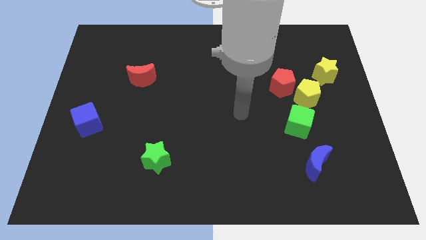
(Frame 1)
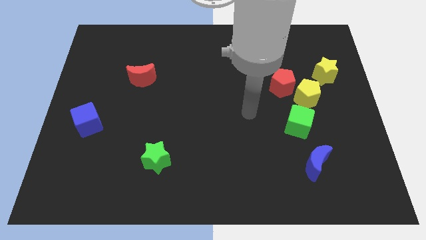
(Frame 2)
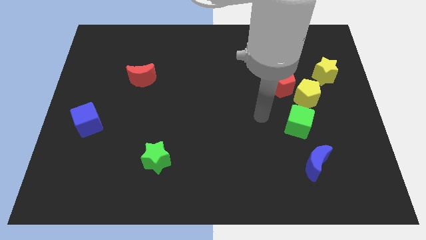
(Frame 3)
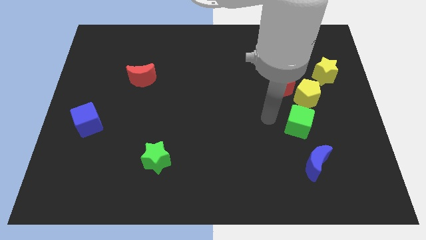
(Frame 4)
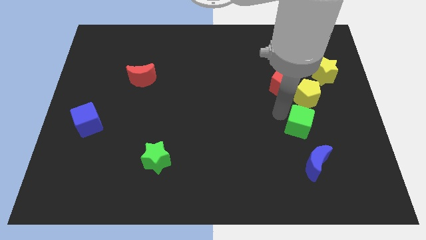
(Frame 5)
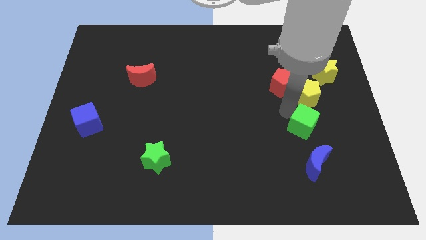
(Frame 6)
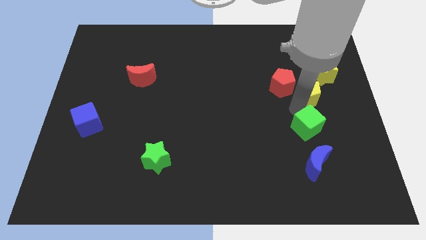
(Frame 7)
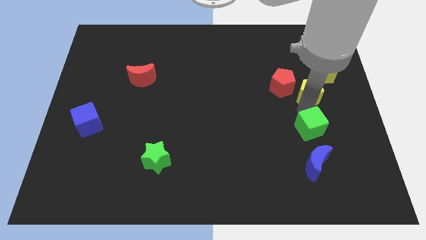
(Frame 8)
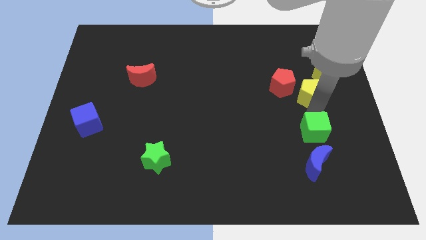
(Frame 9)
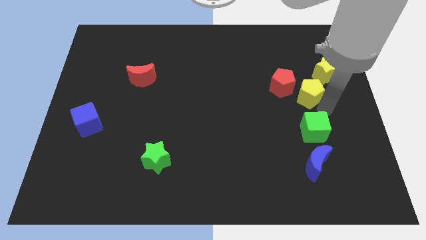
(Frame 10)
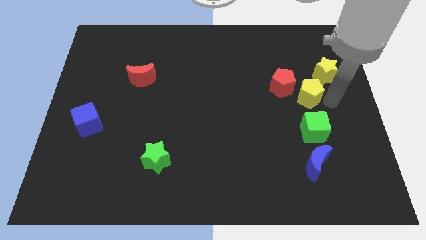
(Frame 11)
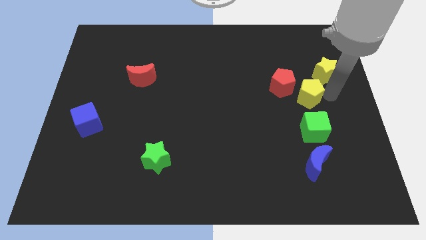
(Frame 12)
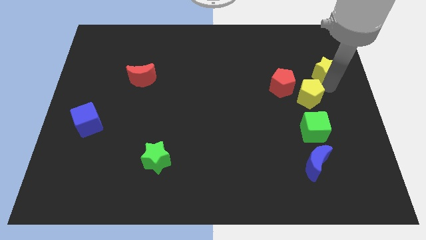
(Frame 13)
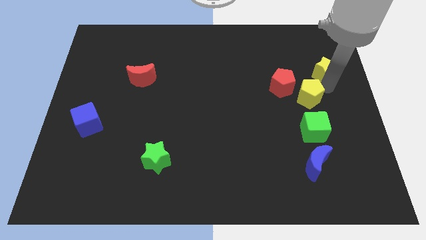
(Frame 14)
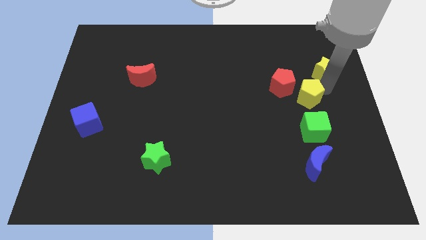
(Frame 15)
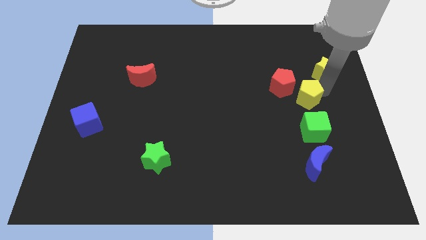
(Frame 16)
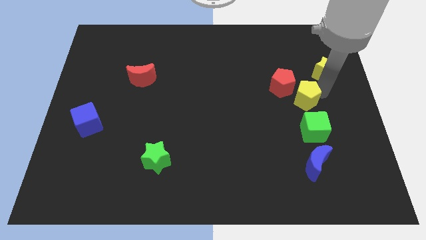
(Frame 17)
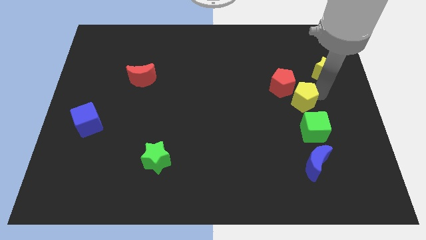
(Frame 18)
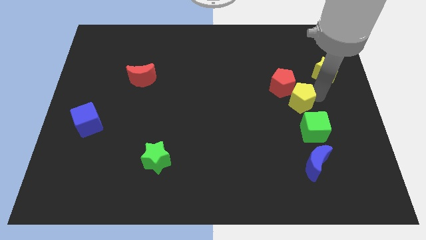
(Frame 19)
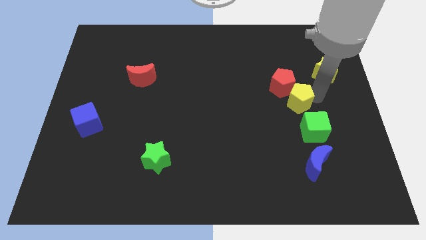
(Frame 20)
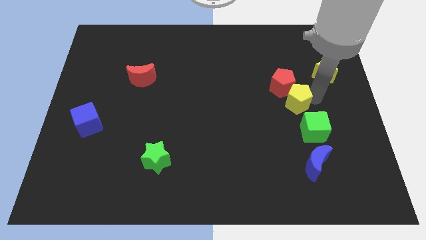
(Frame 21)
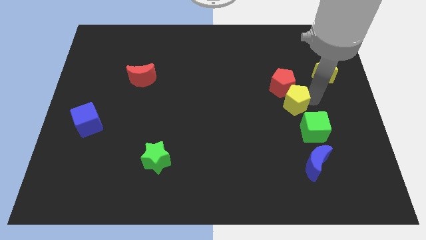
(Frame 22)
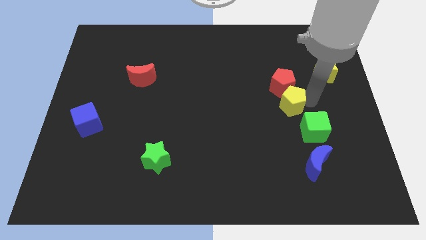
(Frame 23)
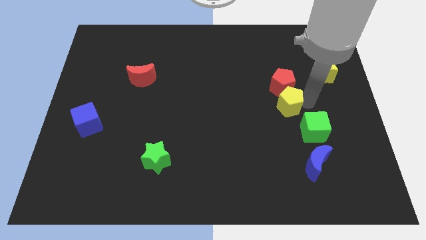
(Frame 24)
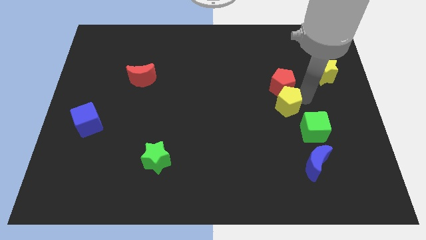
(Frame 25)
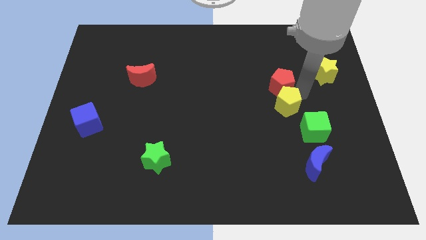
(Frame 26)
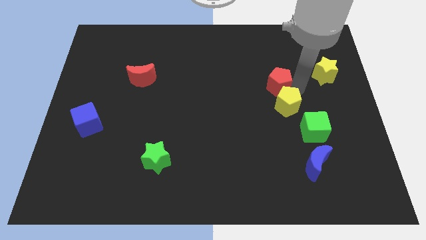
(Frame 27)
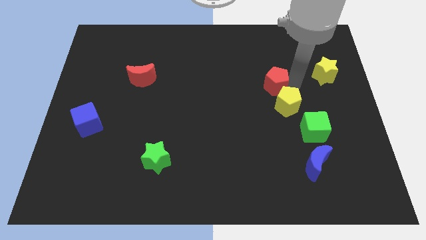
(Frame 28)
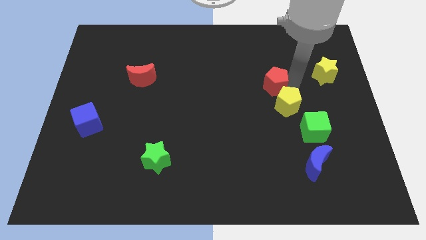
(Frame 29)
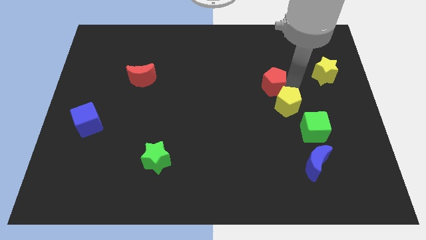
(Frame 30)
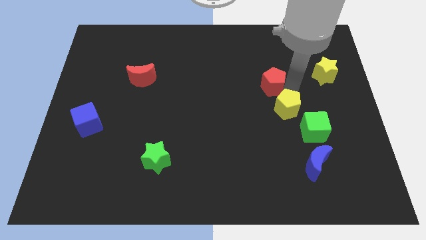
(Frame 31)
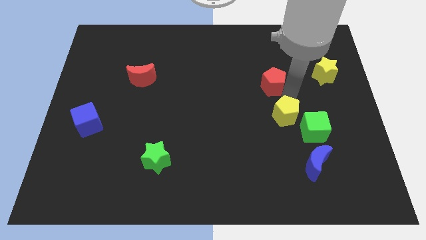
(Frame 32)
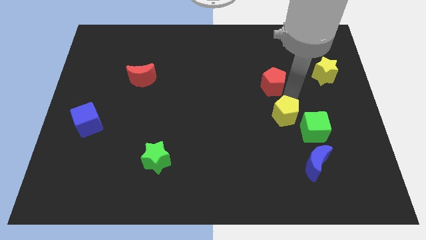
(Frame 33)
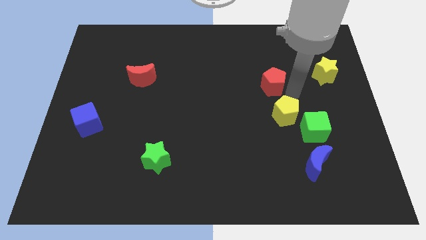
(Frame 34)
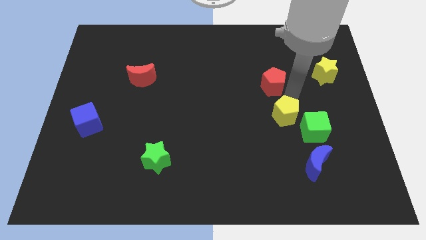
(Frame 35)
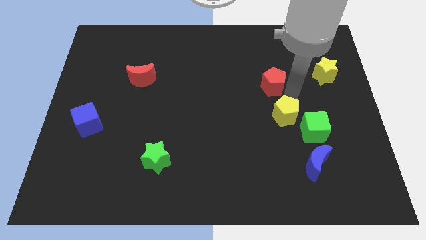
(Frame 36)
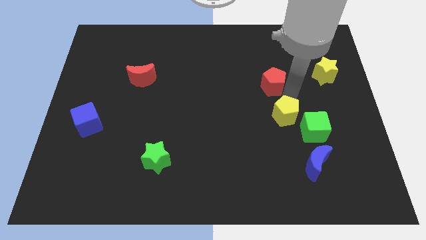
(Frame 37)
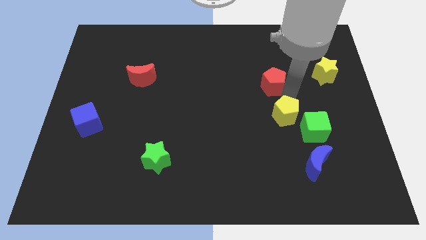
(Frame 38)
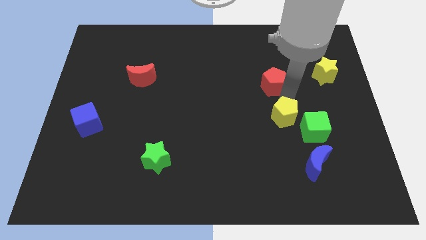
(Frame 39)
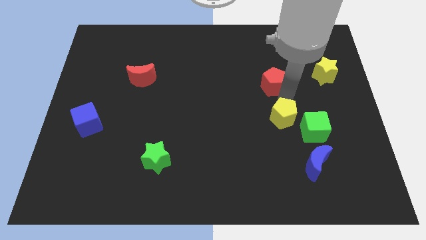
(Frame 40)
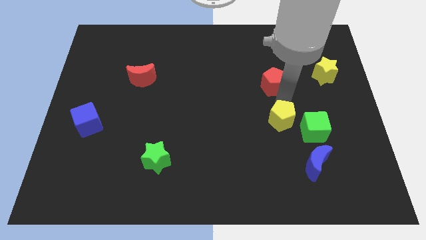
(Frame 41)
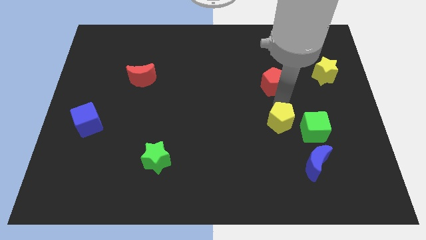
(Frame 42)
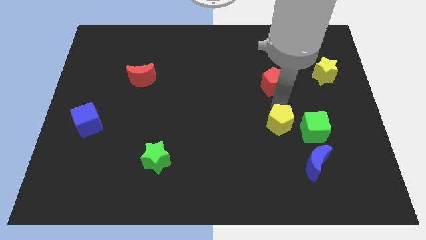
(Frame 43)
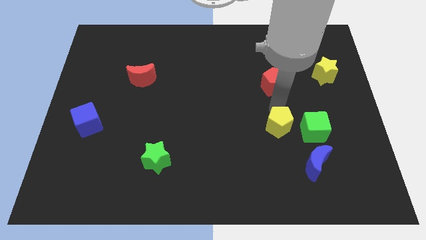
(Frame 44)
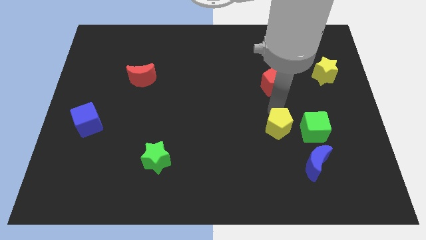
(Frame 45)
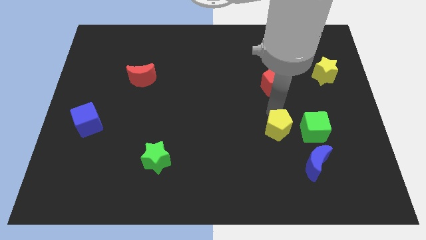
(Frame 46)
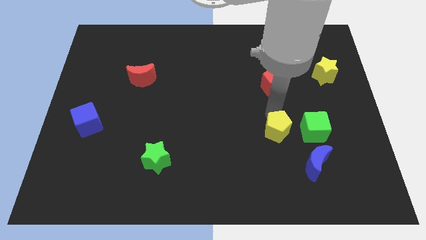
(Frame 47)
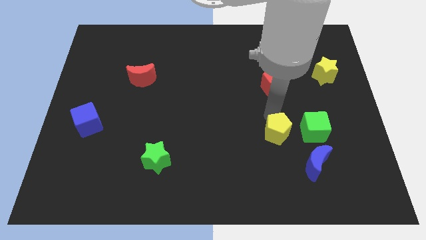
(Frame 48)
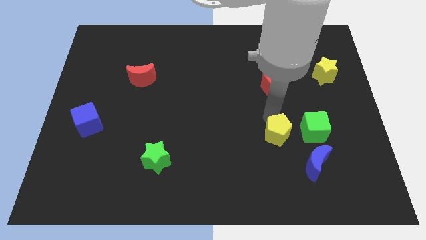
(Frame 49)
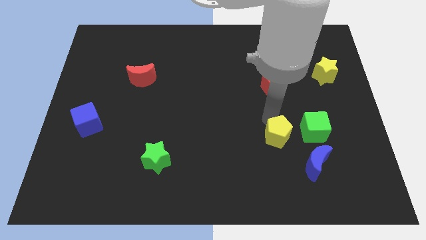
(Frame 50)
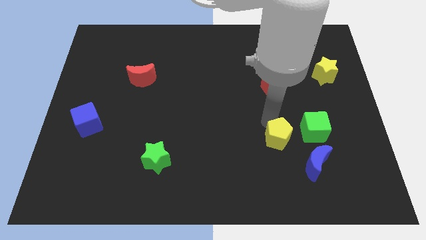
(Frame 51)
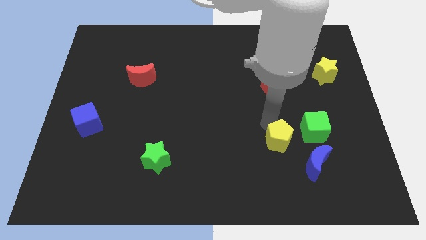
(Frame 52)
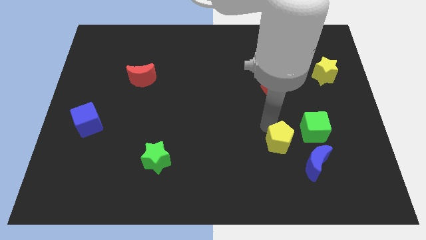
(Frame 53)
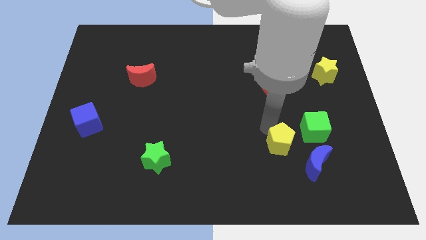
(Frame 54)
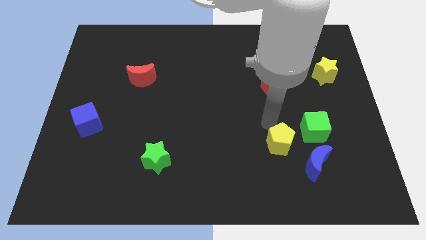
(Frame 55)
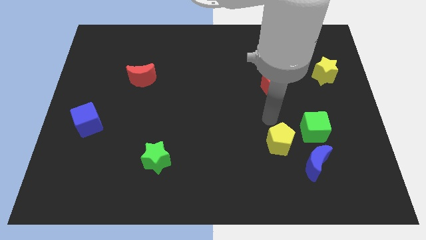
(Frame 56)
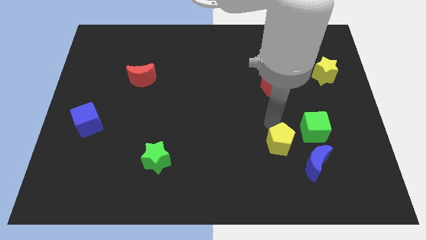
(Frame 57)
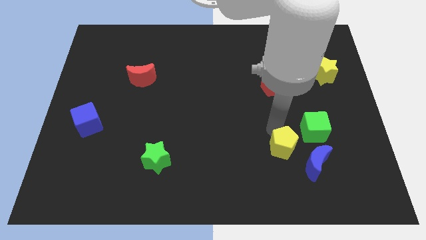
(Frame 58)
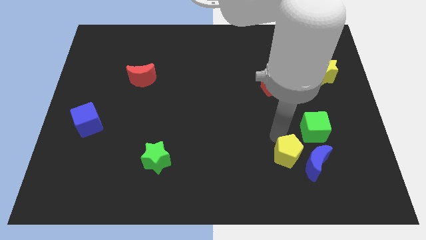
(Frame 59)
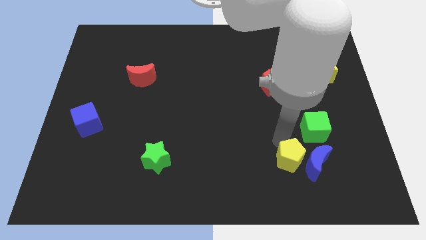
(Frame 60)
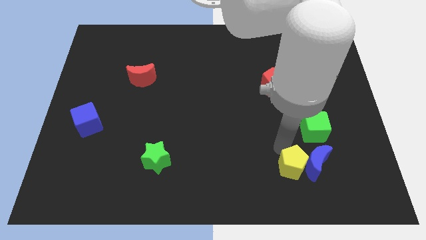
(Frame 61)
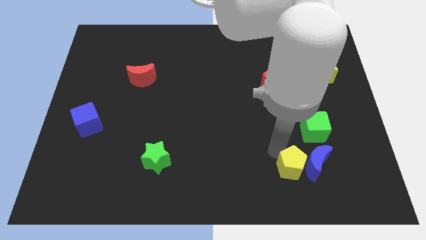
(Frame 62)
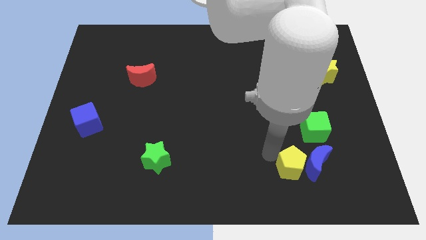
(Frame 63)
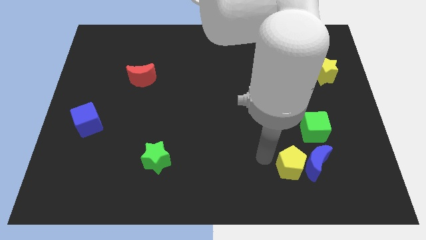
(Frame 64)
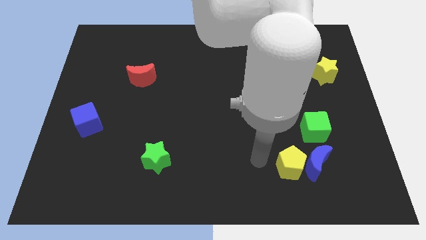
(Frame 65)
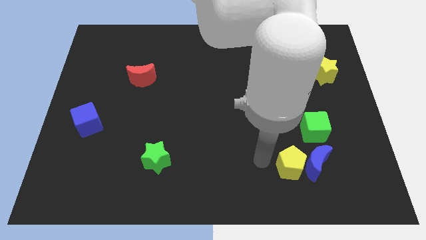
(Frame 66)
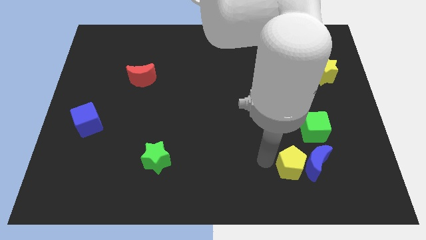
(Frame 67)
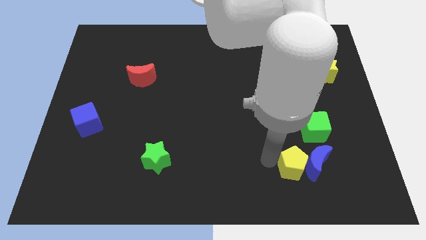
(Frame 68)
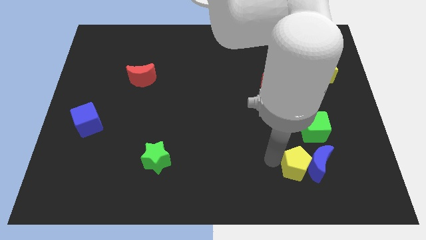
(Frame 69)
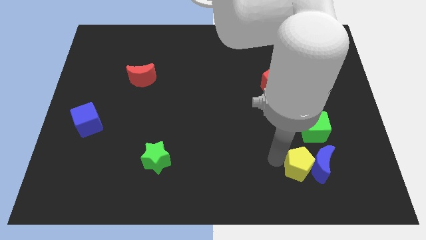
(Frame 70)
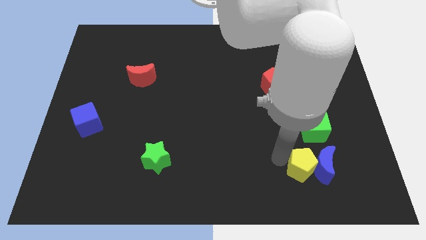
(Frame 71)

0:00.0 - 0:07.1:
put the yellow pentagon to the bottom side of the green cube
